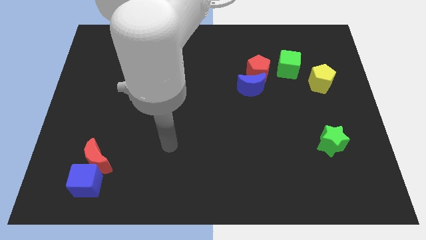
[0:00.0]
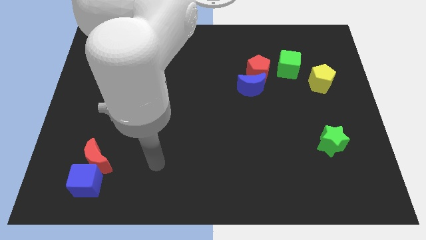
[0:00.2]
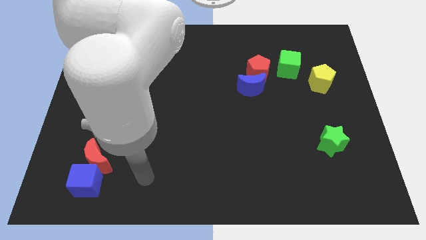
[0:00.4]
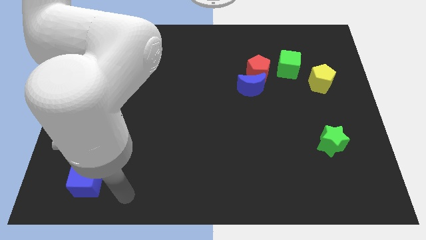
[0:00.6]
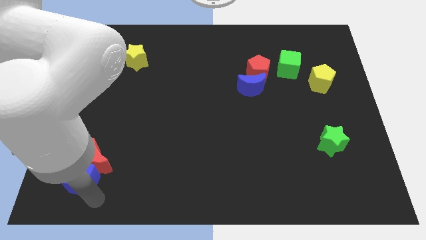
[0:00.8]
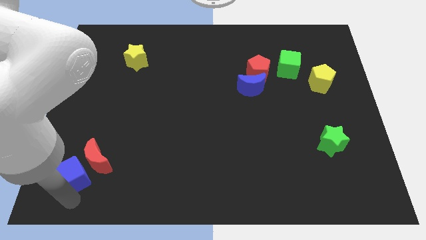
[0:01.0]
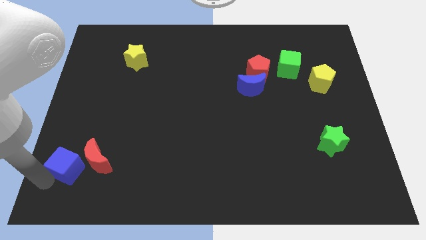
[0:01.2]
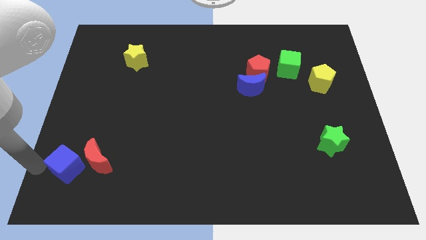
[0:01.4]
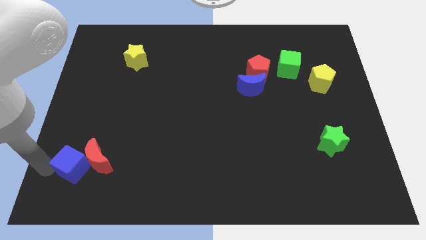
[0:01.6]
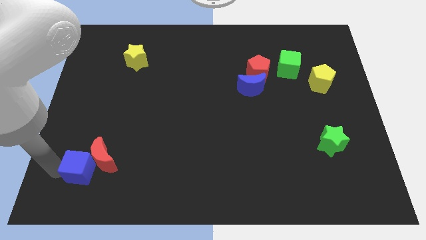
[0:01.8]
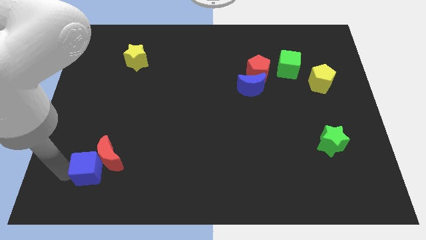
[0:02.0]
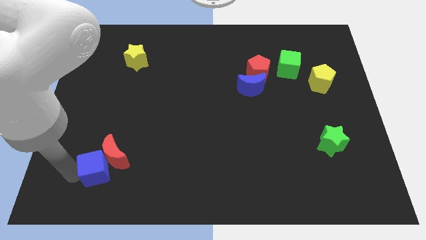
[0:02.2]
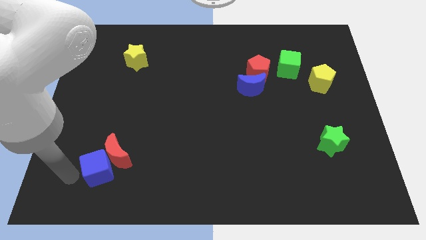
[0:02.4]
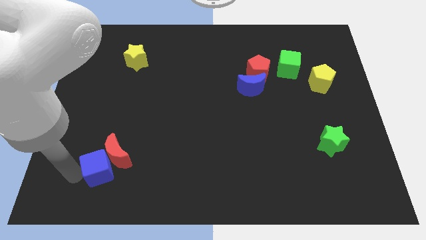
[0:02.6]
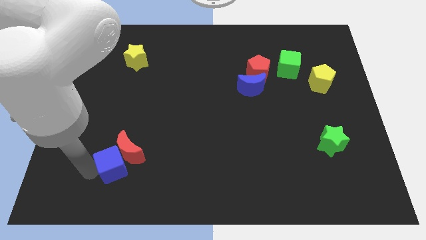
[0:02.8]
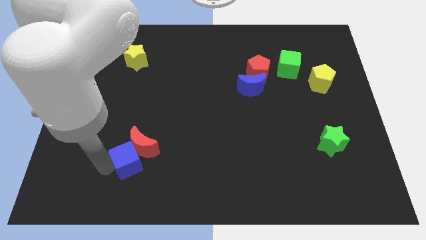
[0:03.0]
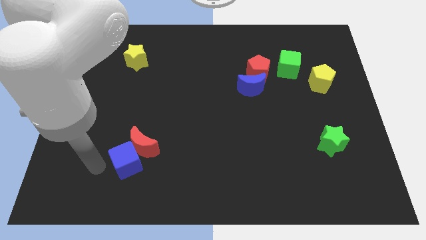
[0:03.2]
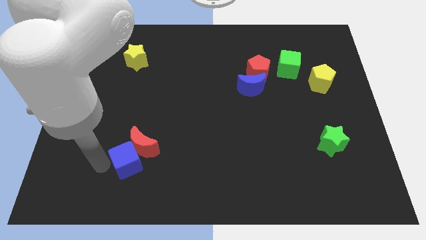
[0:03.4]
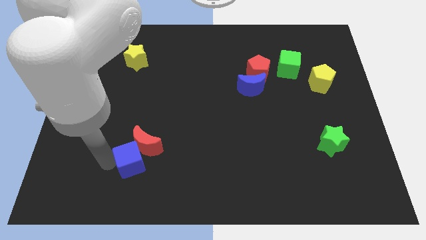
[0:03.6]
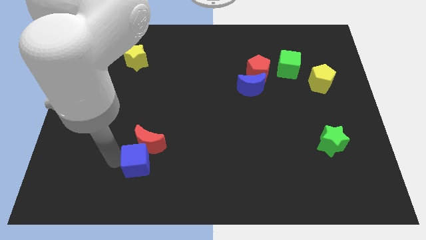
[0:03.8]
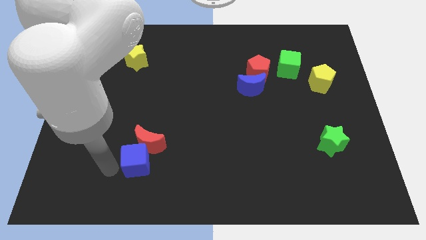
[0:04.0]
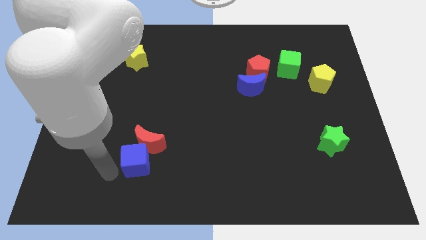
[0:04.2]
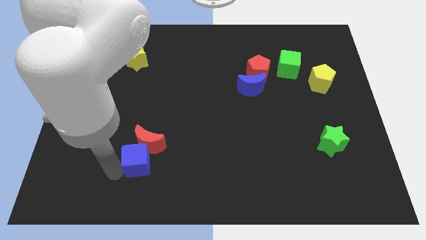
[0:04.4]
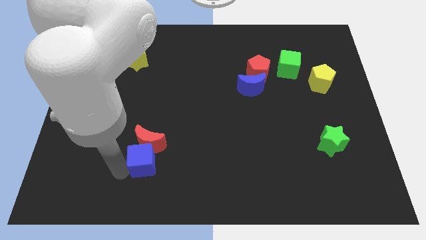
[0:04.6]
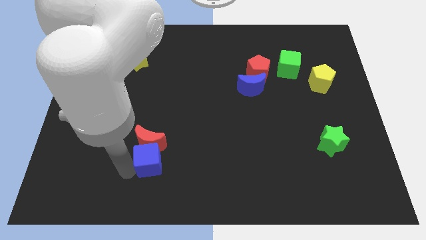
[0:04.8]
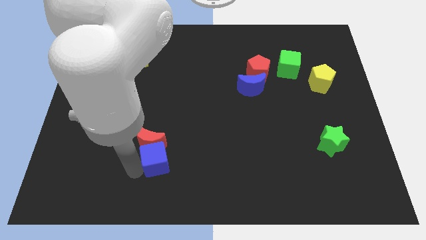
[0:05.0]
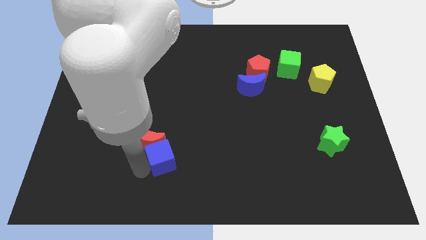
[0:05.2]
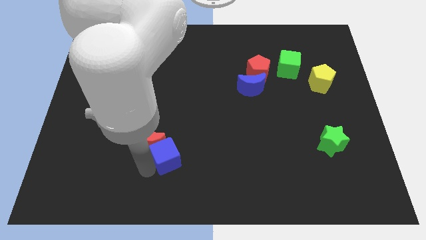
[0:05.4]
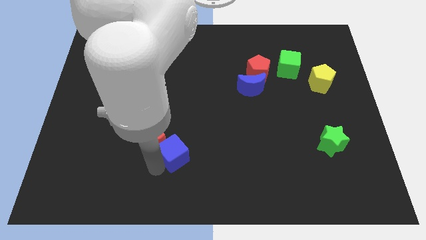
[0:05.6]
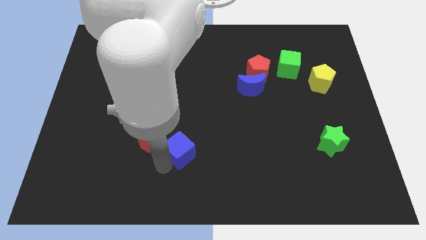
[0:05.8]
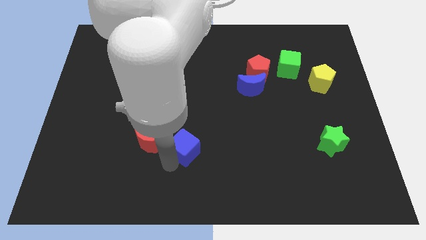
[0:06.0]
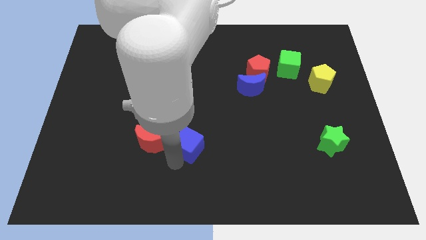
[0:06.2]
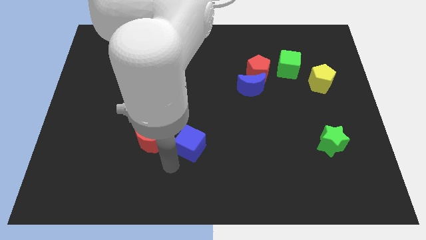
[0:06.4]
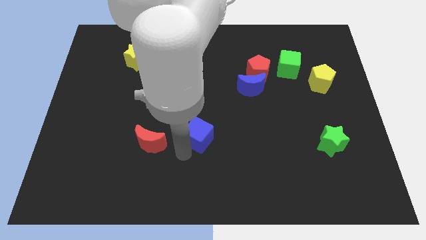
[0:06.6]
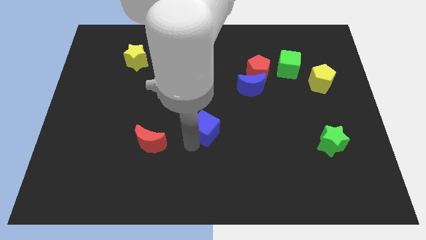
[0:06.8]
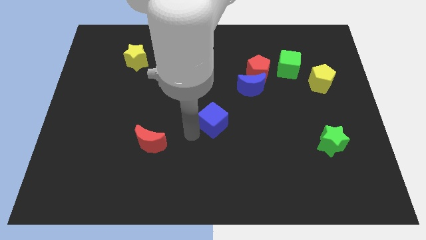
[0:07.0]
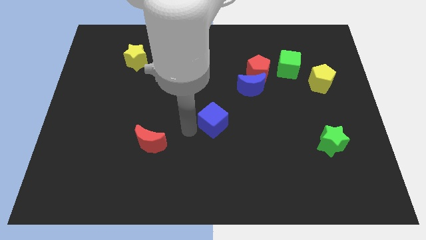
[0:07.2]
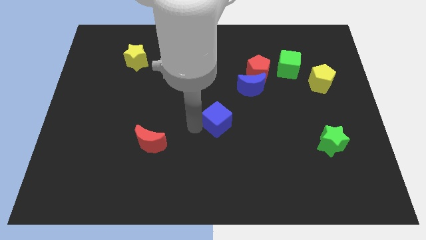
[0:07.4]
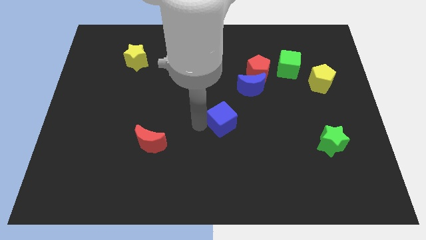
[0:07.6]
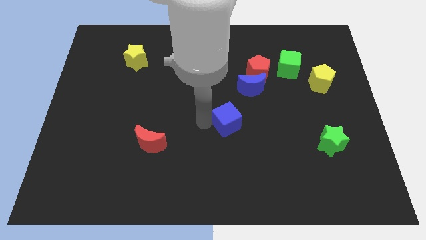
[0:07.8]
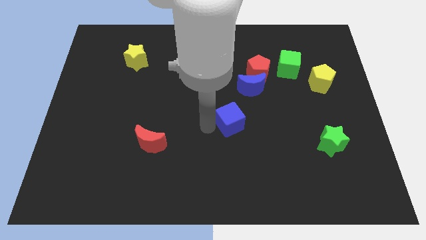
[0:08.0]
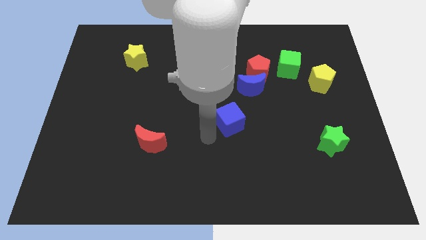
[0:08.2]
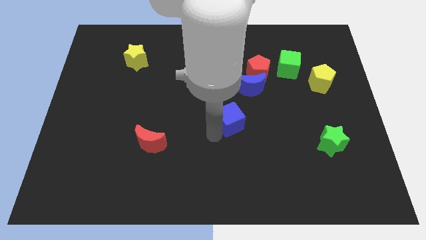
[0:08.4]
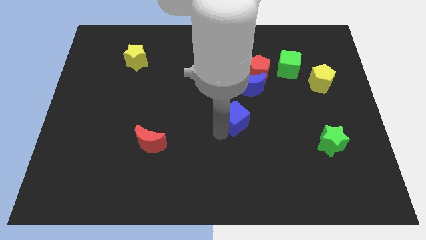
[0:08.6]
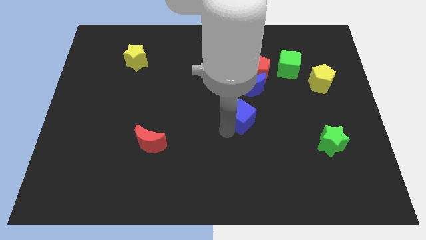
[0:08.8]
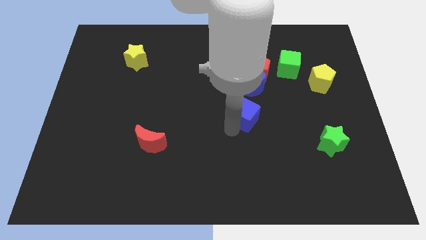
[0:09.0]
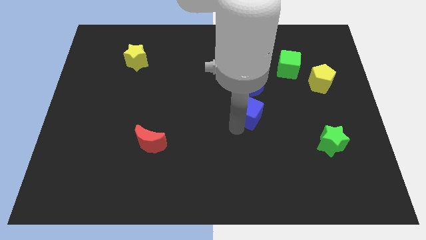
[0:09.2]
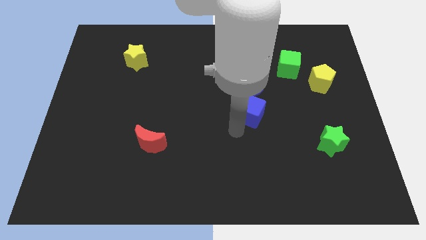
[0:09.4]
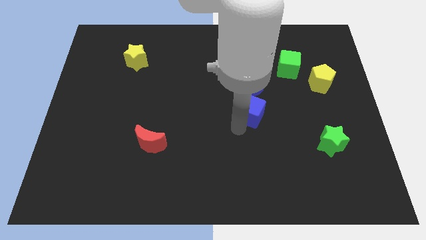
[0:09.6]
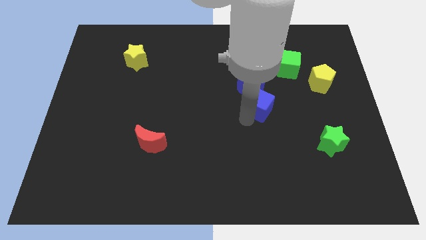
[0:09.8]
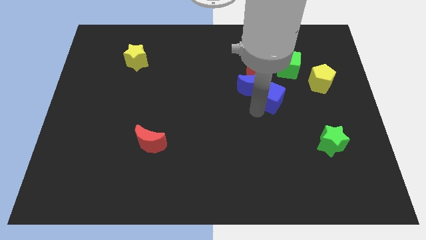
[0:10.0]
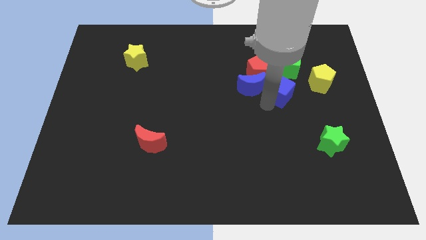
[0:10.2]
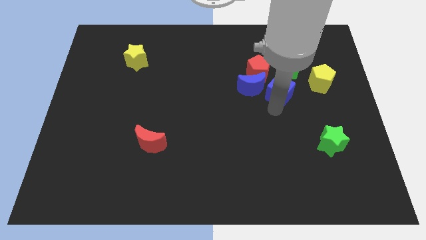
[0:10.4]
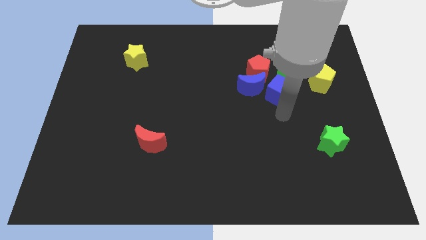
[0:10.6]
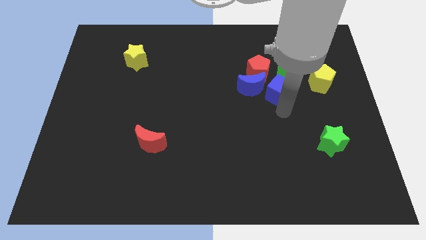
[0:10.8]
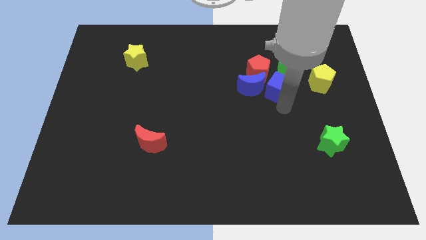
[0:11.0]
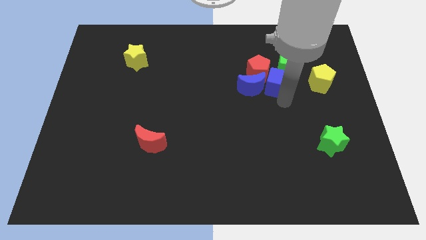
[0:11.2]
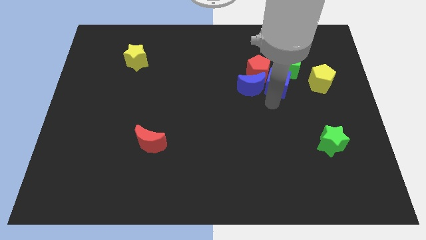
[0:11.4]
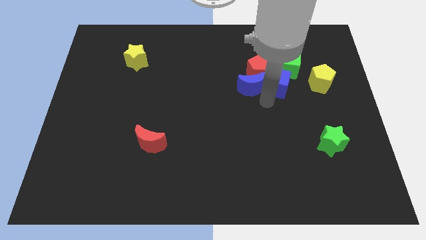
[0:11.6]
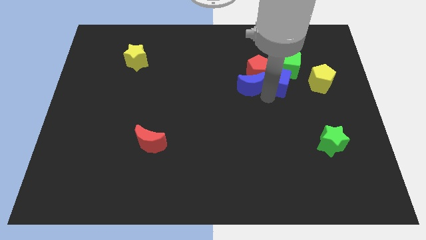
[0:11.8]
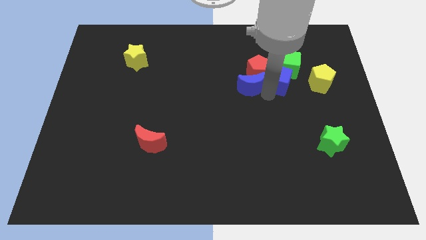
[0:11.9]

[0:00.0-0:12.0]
move the blue cube to the green cube

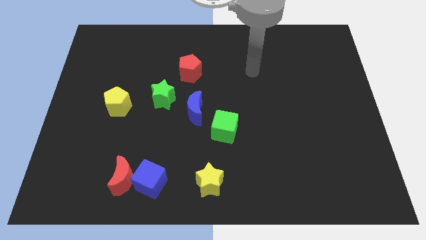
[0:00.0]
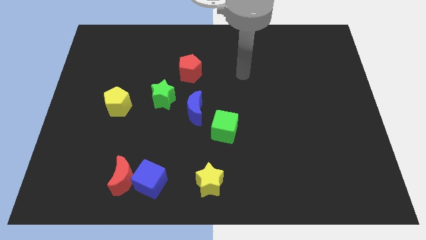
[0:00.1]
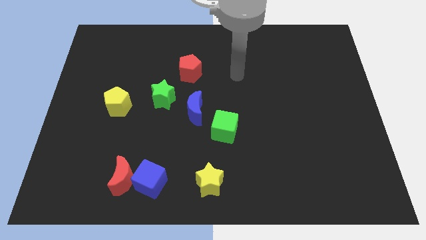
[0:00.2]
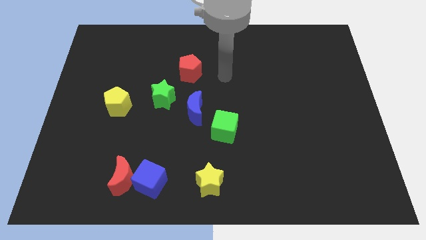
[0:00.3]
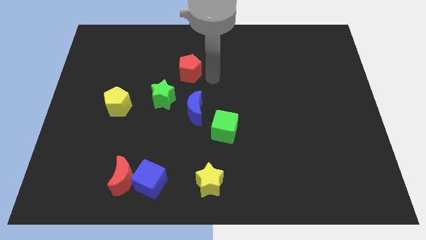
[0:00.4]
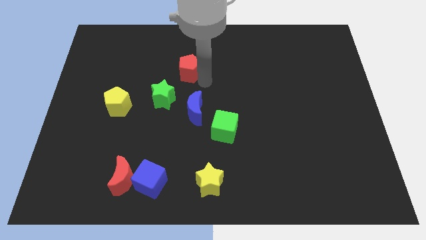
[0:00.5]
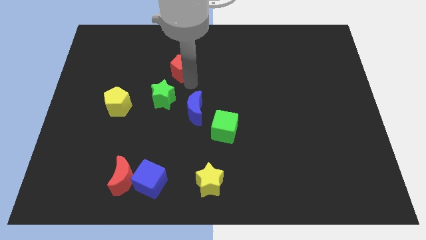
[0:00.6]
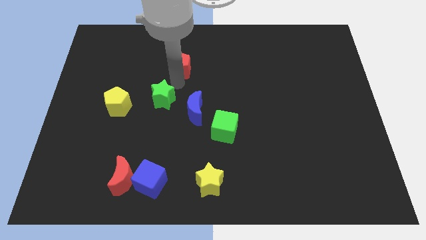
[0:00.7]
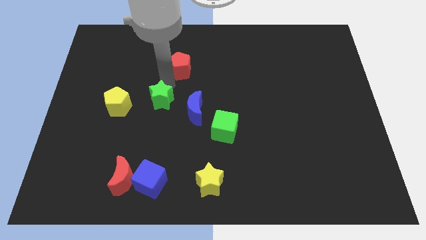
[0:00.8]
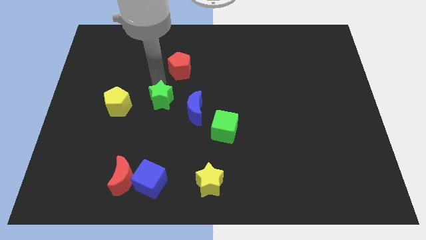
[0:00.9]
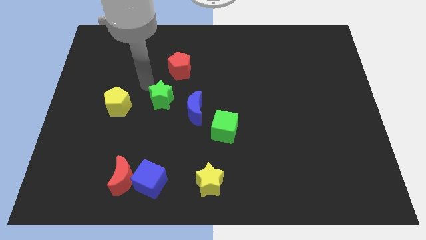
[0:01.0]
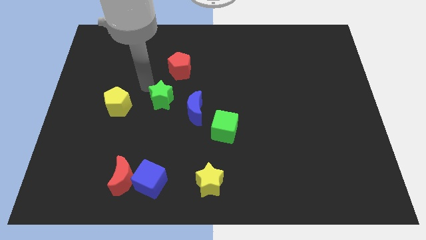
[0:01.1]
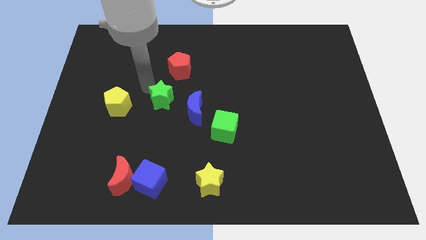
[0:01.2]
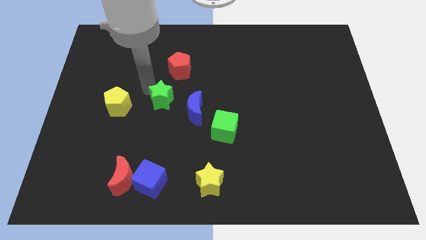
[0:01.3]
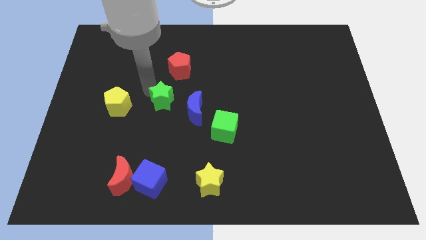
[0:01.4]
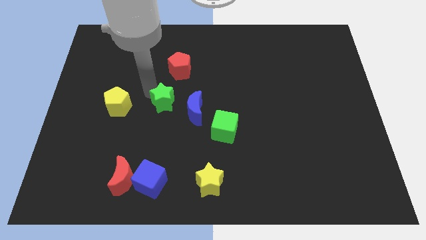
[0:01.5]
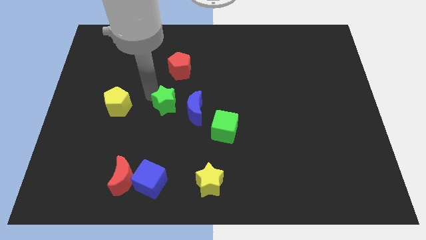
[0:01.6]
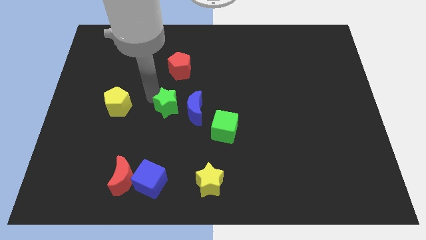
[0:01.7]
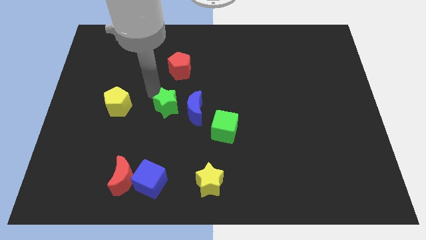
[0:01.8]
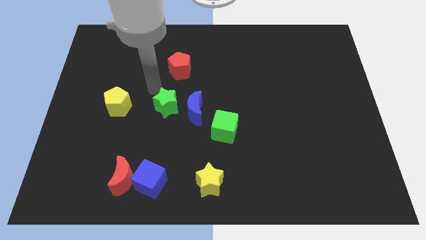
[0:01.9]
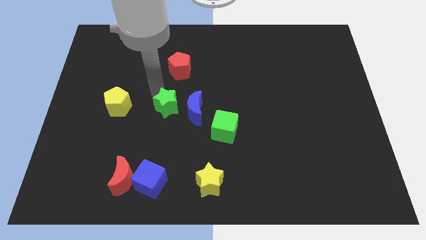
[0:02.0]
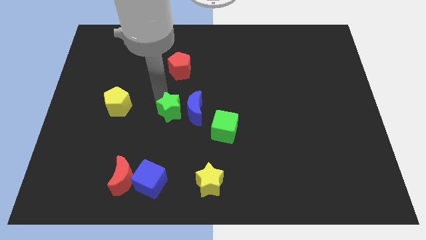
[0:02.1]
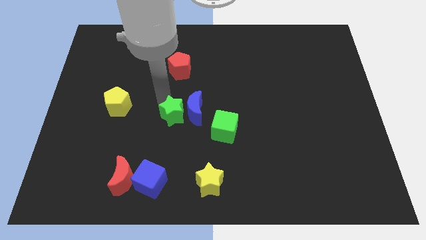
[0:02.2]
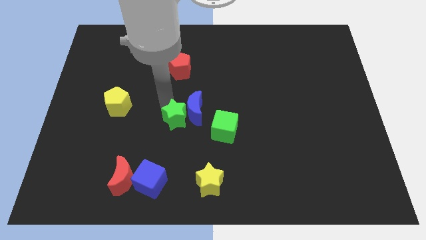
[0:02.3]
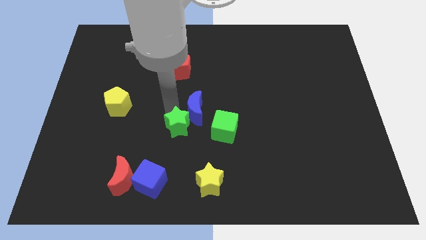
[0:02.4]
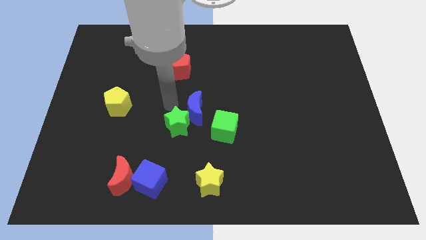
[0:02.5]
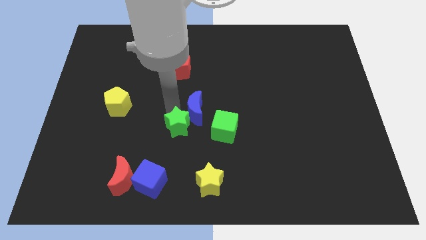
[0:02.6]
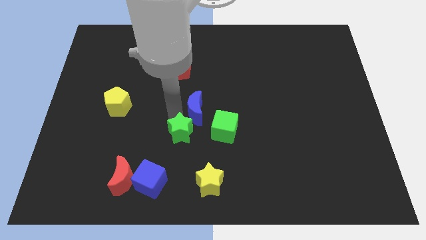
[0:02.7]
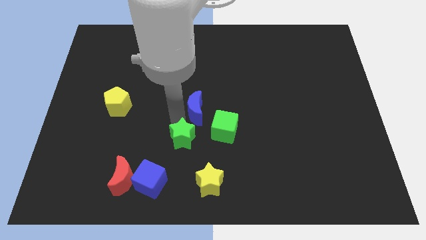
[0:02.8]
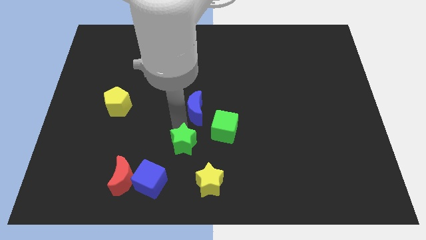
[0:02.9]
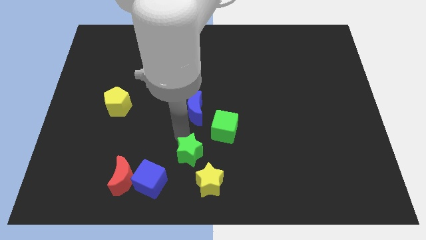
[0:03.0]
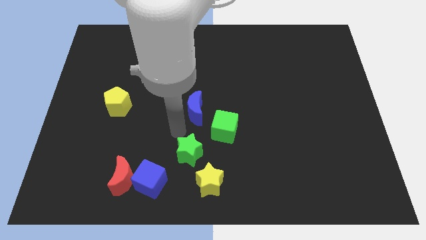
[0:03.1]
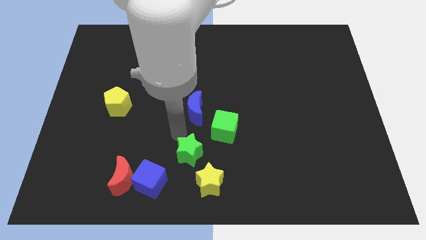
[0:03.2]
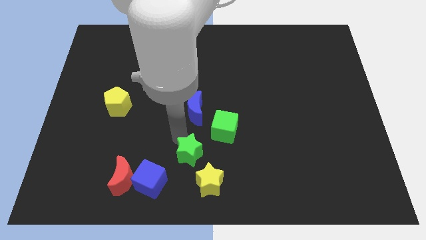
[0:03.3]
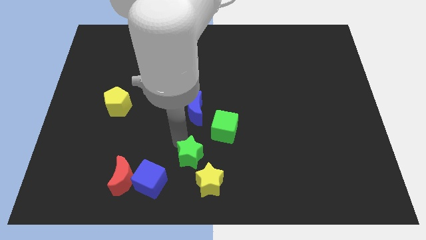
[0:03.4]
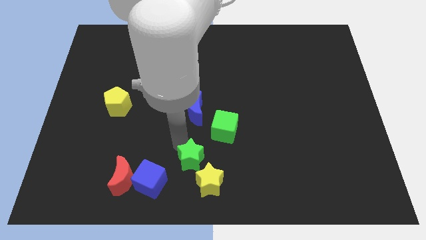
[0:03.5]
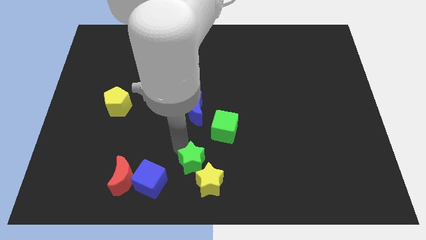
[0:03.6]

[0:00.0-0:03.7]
push the green star close to the yellow star
